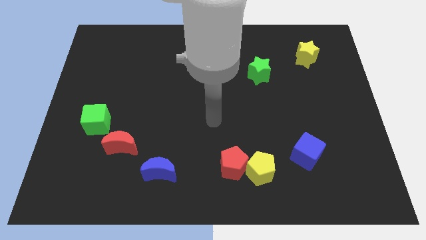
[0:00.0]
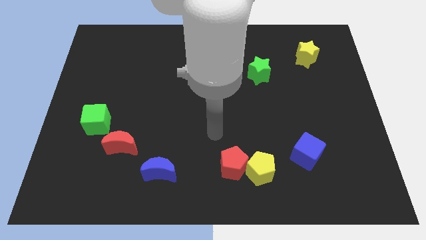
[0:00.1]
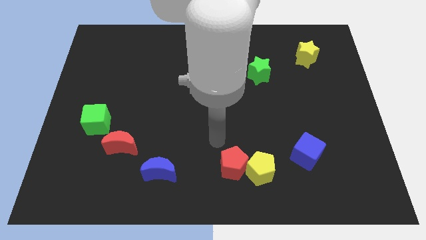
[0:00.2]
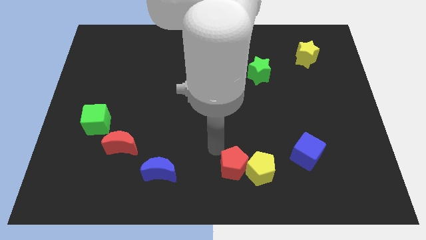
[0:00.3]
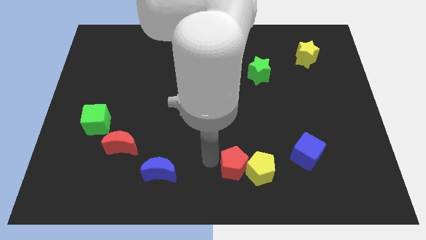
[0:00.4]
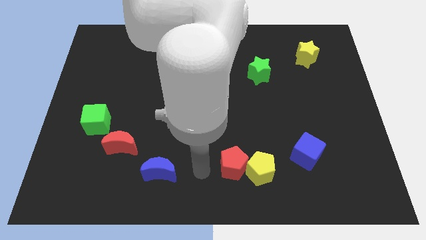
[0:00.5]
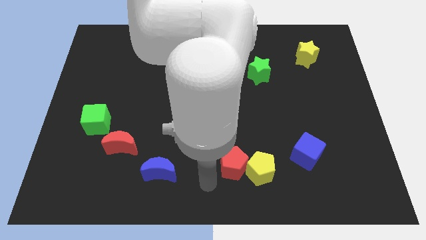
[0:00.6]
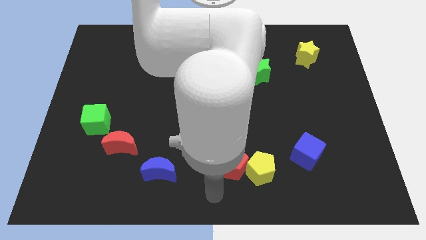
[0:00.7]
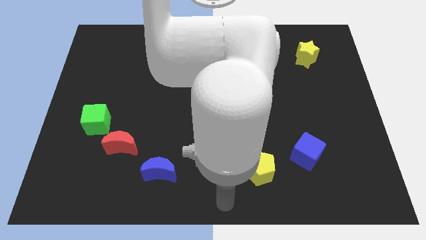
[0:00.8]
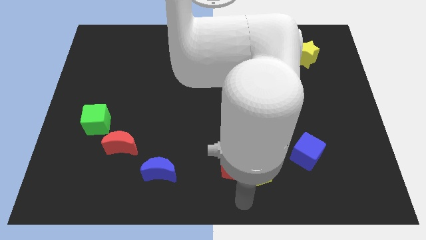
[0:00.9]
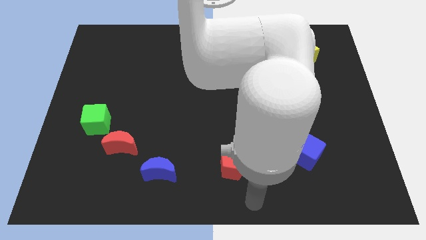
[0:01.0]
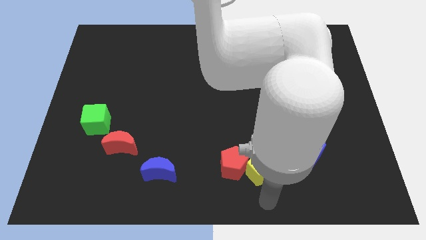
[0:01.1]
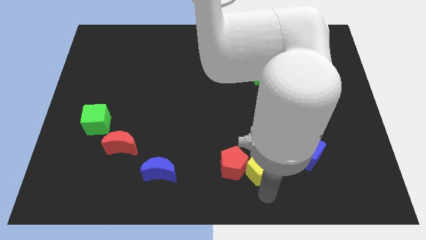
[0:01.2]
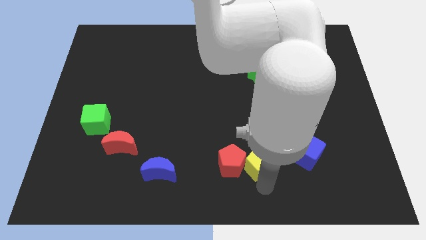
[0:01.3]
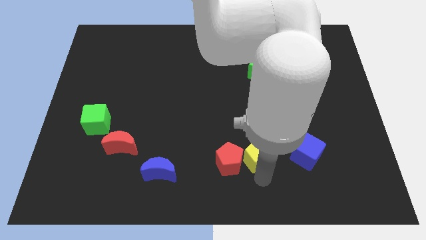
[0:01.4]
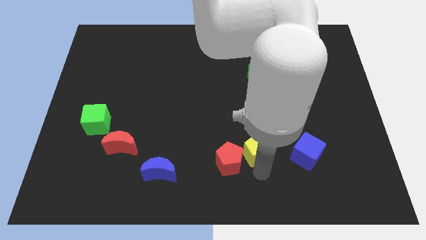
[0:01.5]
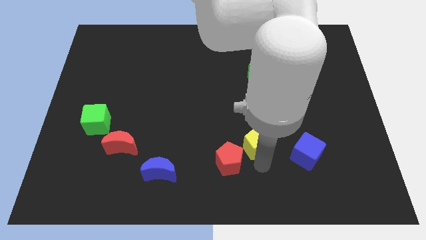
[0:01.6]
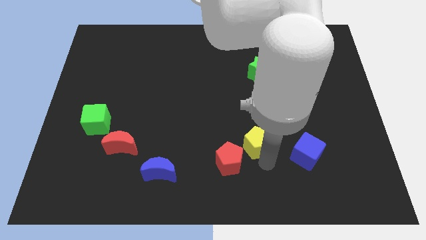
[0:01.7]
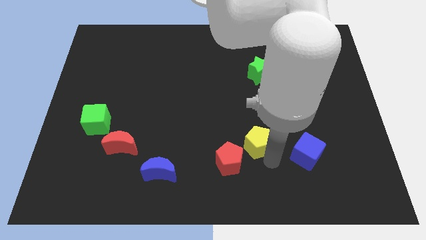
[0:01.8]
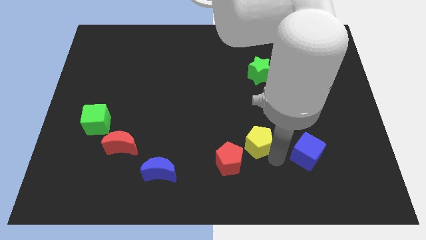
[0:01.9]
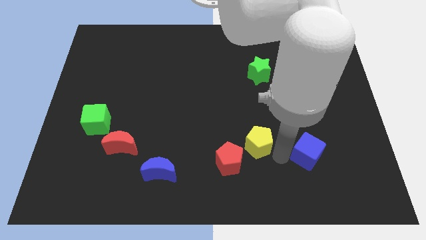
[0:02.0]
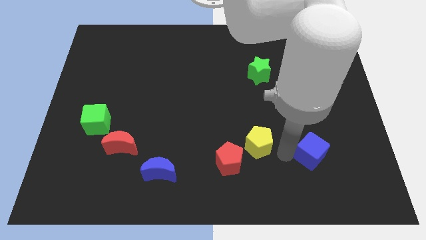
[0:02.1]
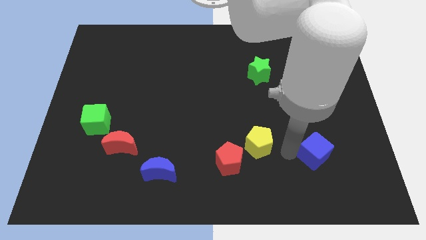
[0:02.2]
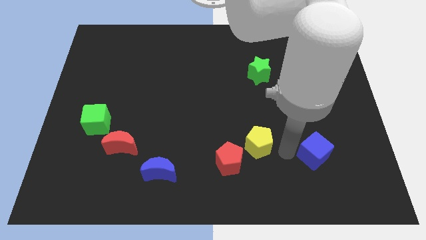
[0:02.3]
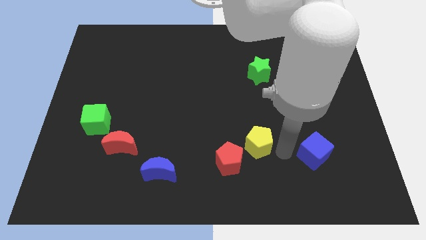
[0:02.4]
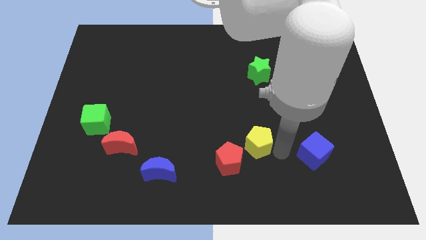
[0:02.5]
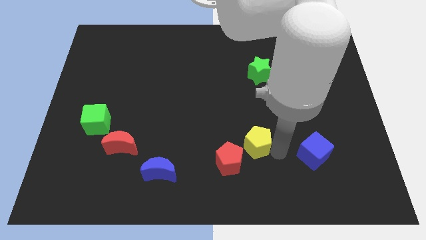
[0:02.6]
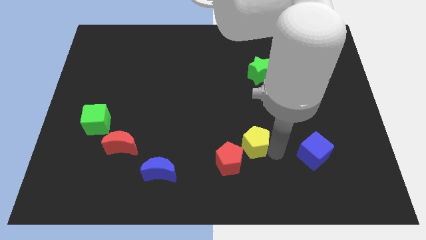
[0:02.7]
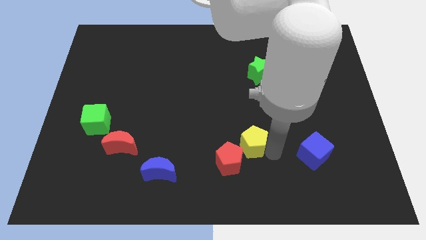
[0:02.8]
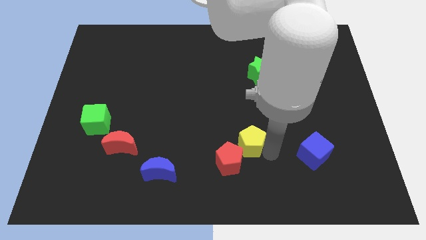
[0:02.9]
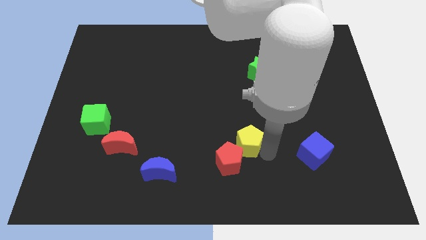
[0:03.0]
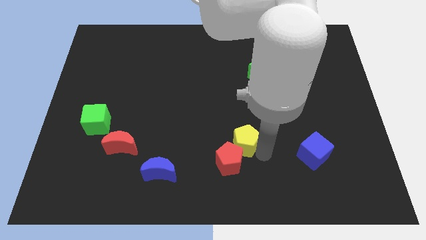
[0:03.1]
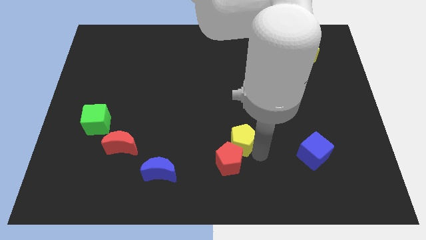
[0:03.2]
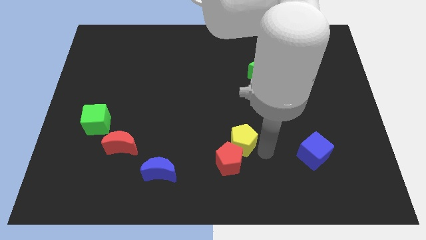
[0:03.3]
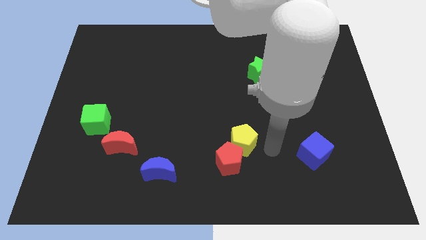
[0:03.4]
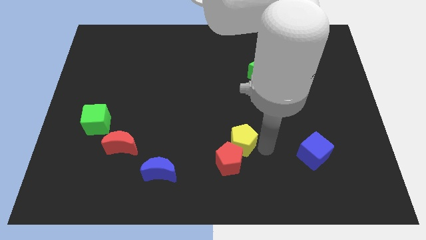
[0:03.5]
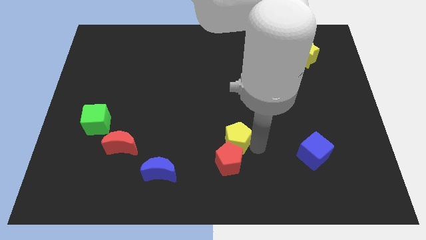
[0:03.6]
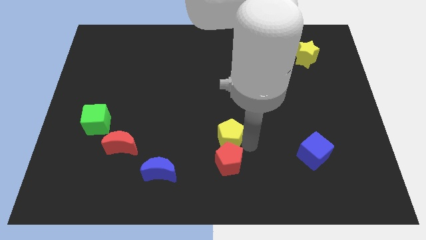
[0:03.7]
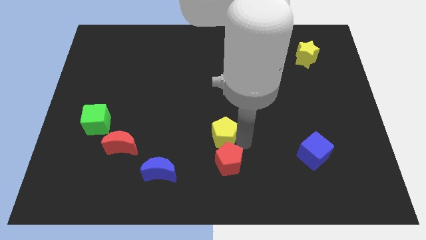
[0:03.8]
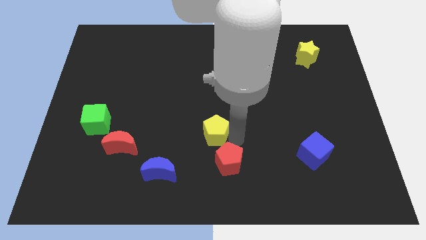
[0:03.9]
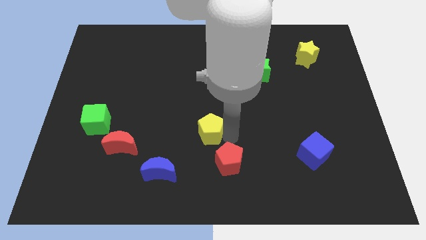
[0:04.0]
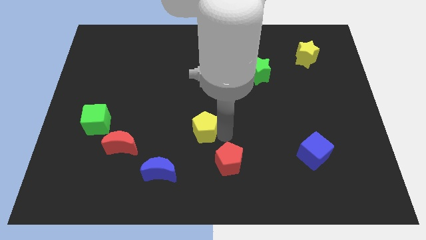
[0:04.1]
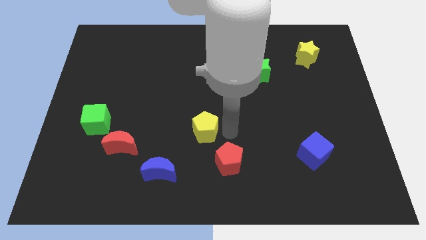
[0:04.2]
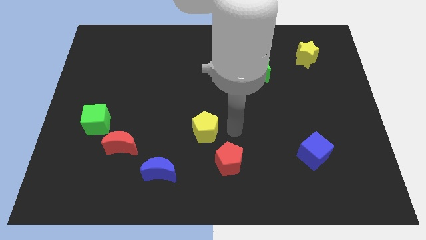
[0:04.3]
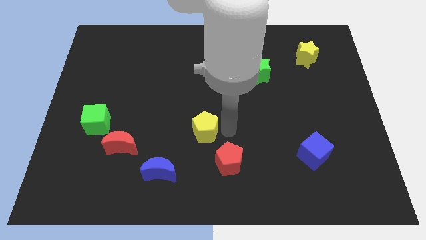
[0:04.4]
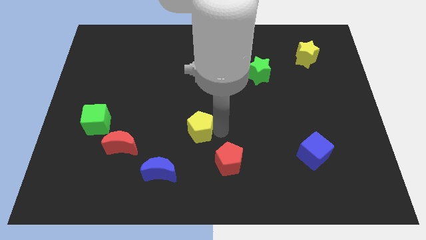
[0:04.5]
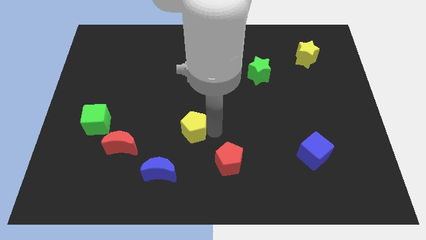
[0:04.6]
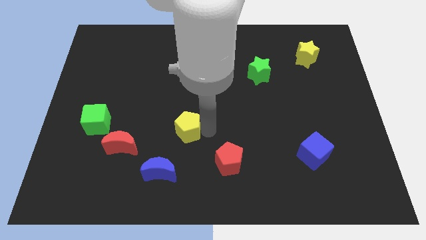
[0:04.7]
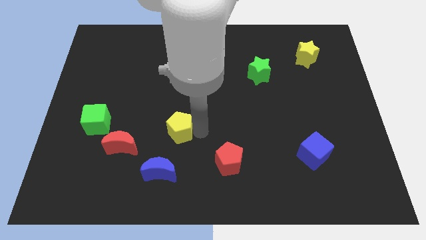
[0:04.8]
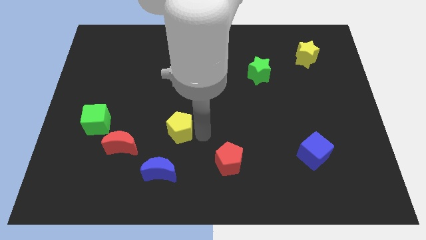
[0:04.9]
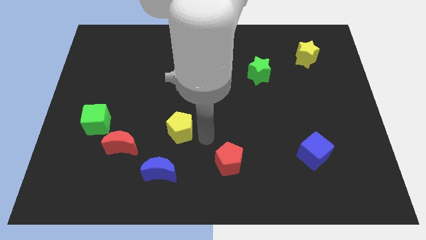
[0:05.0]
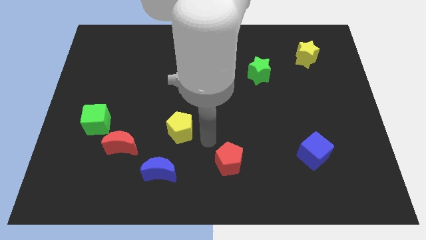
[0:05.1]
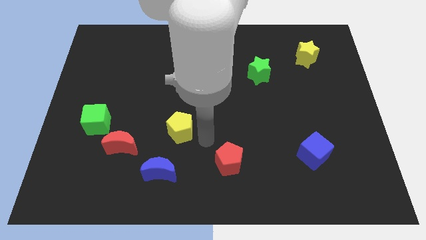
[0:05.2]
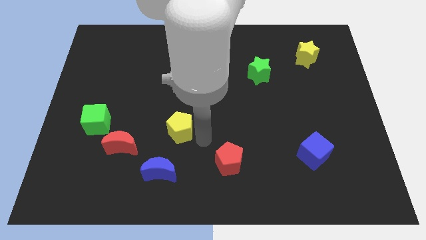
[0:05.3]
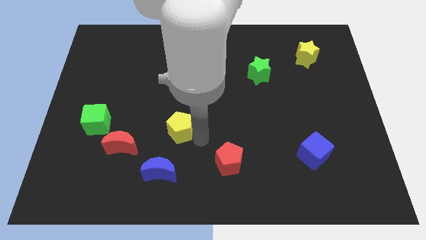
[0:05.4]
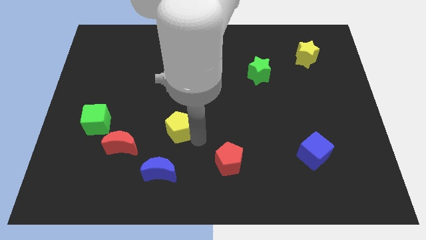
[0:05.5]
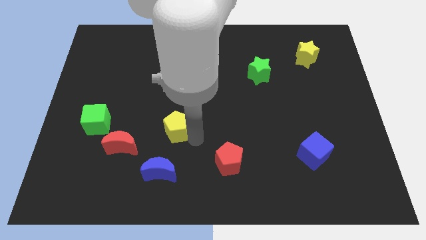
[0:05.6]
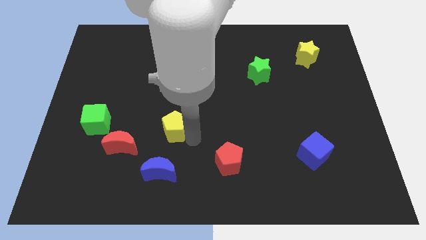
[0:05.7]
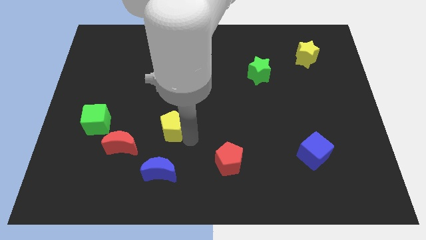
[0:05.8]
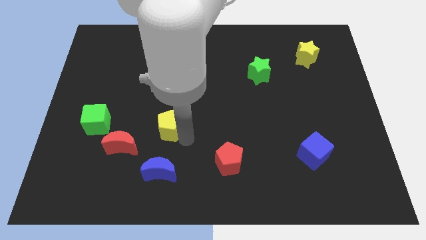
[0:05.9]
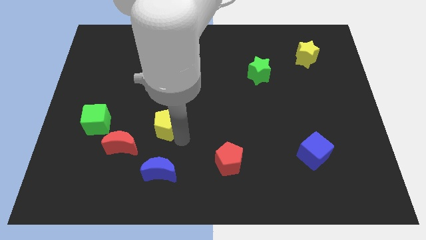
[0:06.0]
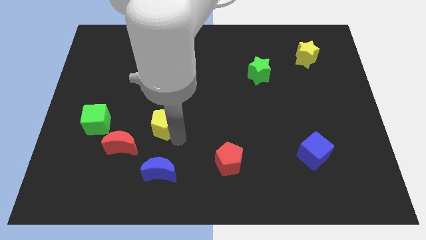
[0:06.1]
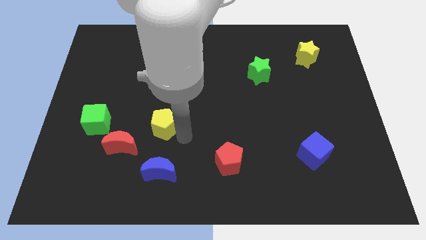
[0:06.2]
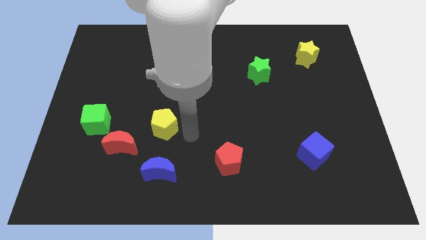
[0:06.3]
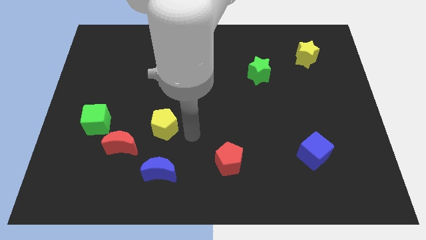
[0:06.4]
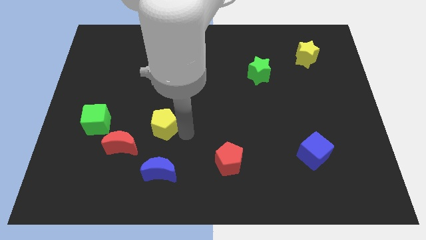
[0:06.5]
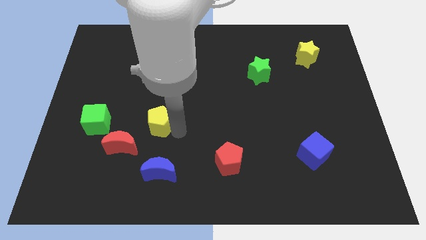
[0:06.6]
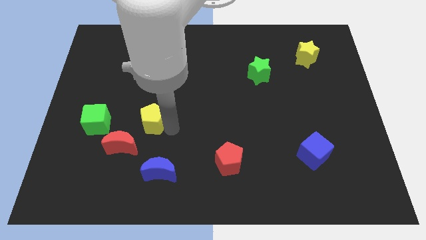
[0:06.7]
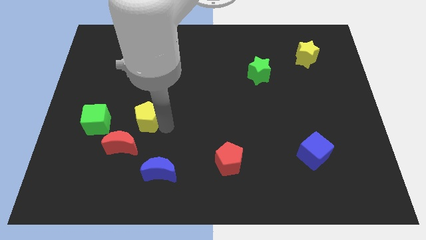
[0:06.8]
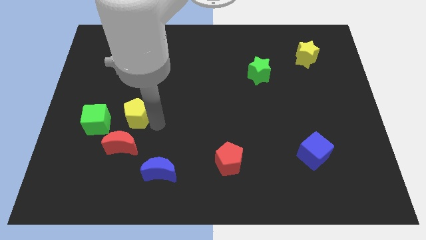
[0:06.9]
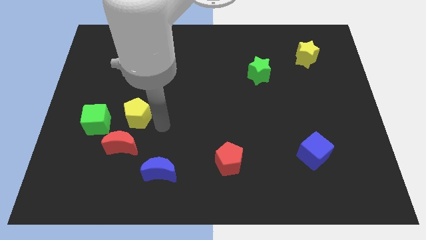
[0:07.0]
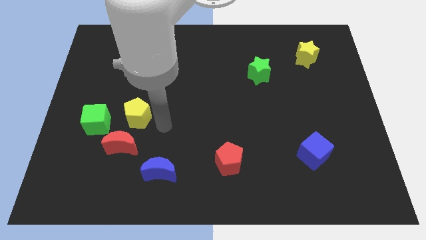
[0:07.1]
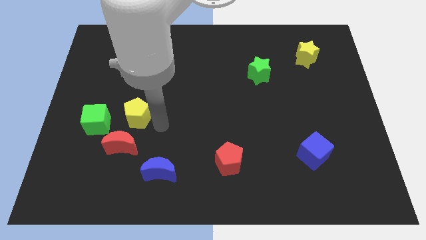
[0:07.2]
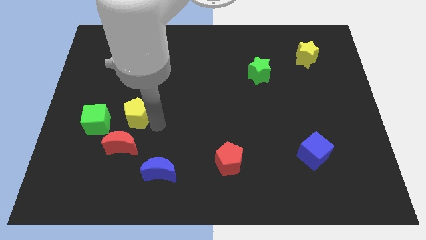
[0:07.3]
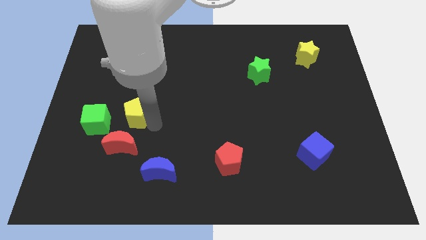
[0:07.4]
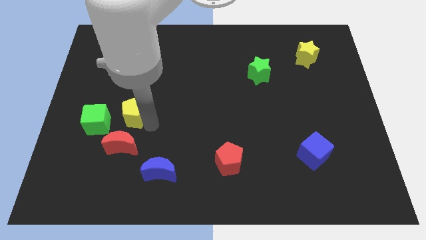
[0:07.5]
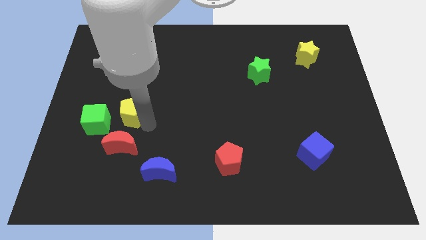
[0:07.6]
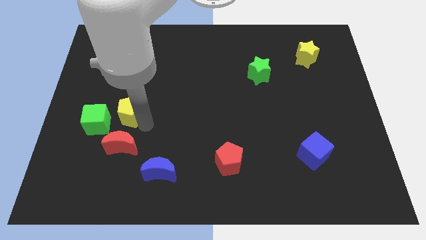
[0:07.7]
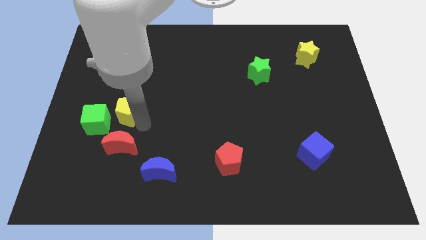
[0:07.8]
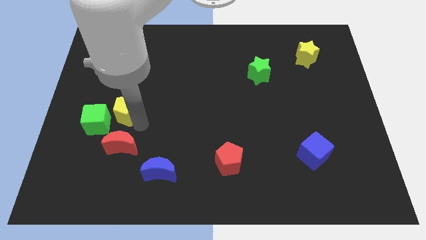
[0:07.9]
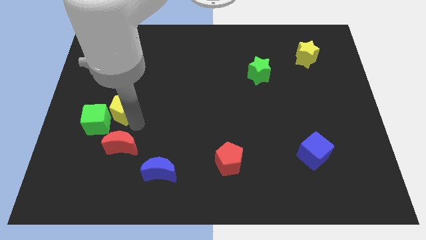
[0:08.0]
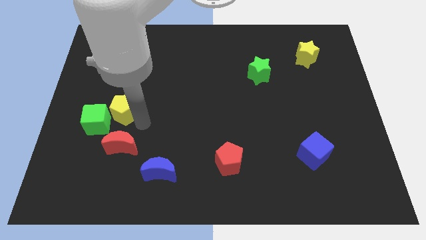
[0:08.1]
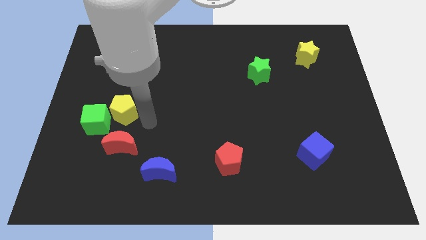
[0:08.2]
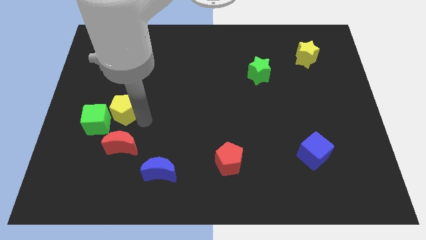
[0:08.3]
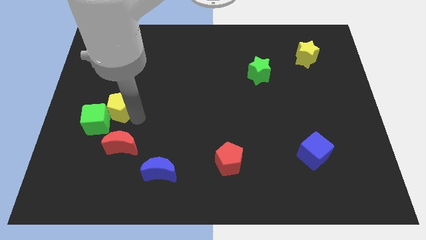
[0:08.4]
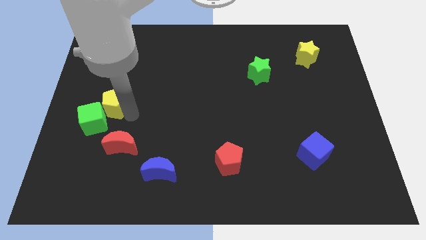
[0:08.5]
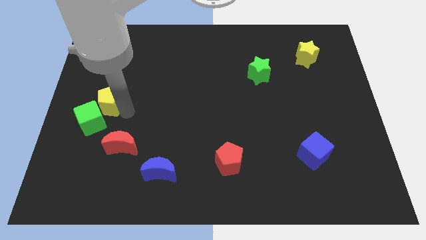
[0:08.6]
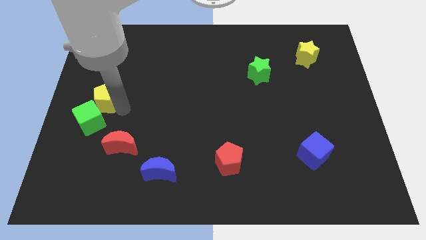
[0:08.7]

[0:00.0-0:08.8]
move the yellow pentagon to the left side
